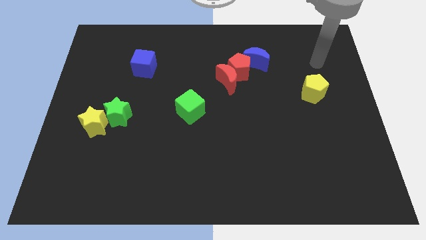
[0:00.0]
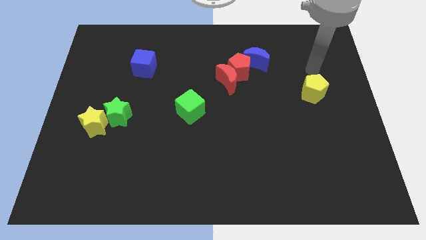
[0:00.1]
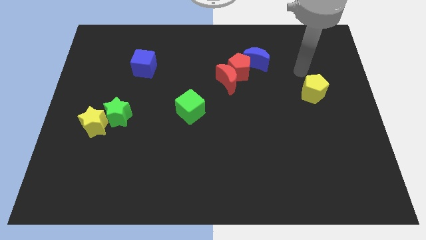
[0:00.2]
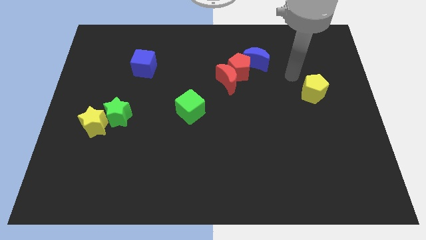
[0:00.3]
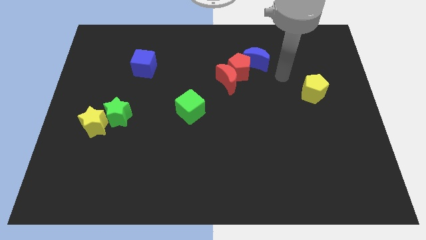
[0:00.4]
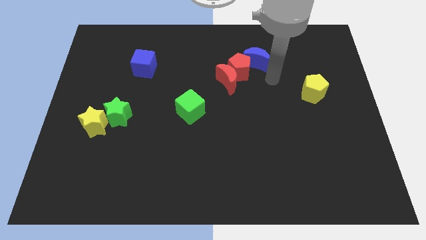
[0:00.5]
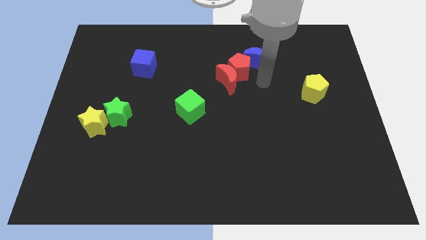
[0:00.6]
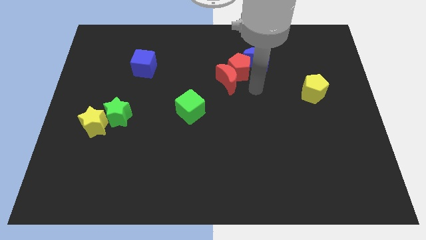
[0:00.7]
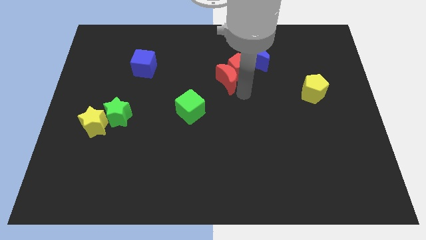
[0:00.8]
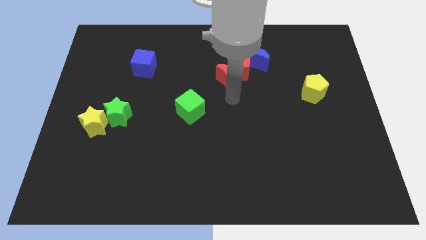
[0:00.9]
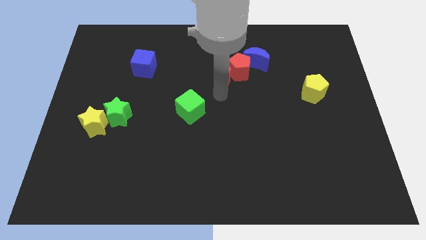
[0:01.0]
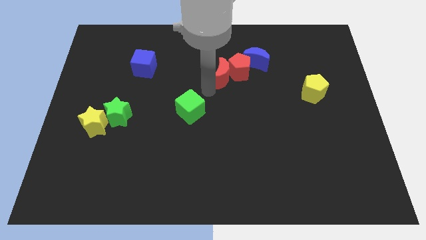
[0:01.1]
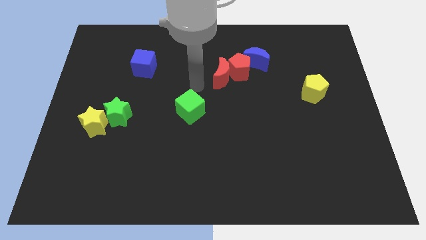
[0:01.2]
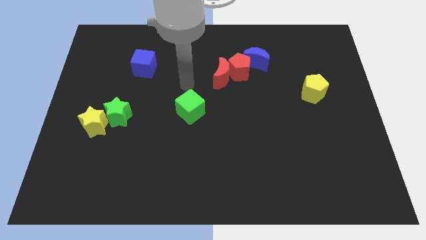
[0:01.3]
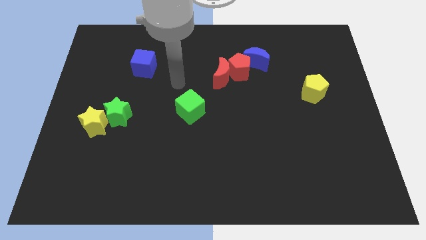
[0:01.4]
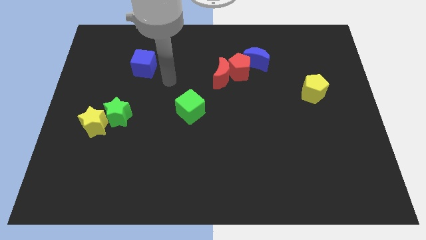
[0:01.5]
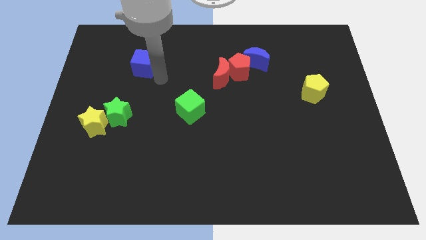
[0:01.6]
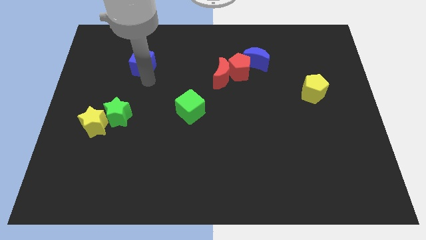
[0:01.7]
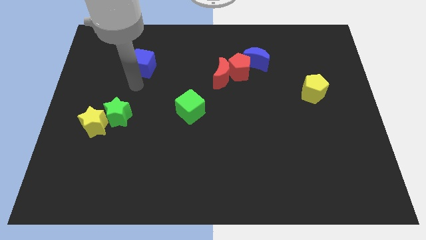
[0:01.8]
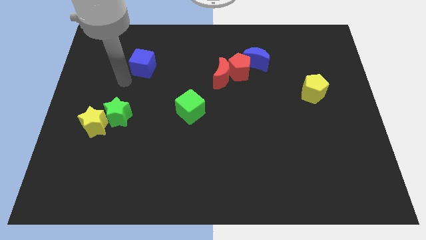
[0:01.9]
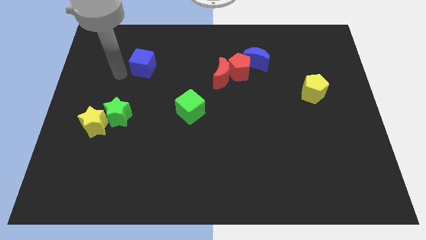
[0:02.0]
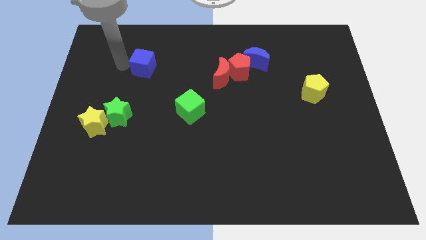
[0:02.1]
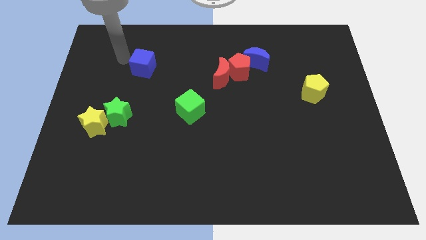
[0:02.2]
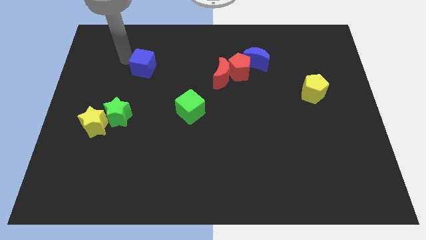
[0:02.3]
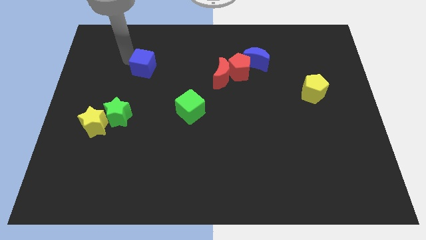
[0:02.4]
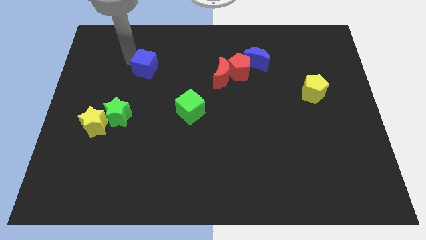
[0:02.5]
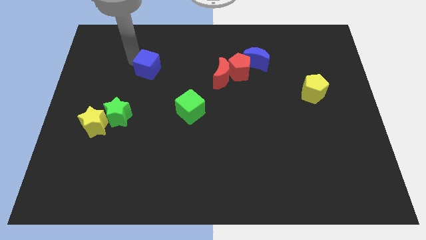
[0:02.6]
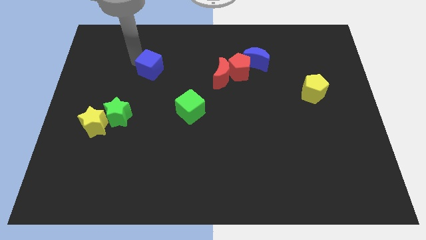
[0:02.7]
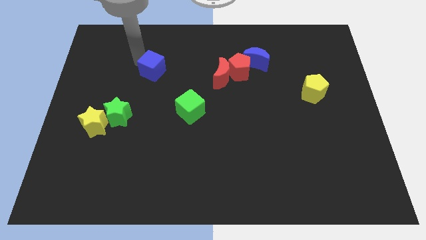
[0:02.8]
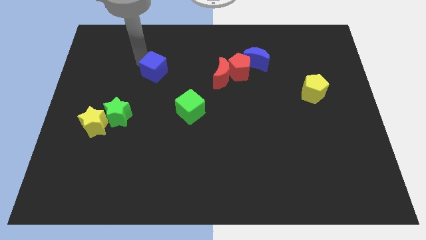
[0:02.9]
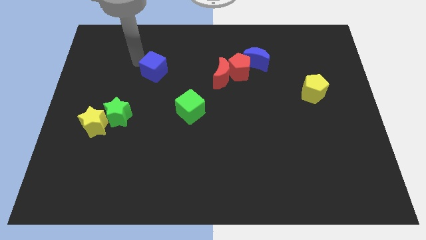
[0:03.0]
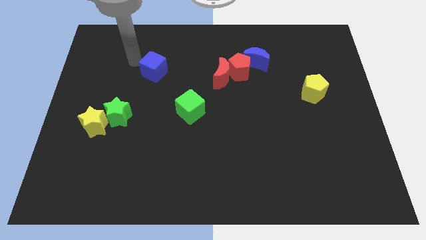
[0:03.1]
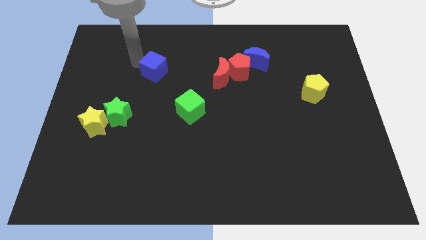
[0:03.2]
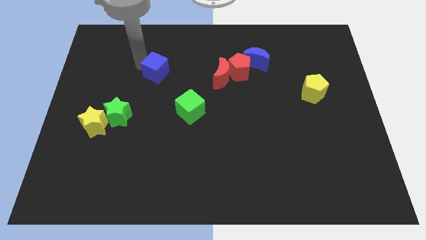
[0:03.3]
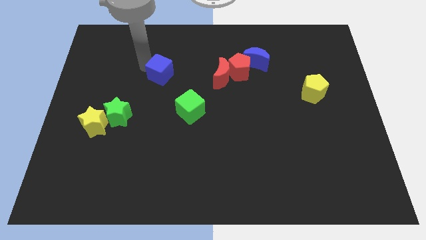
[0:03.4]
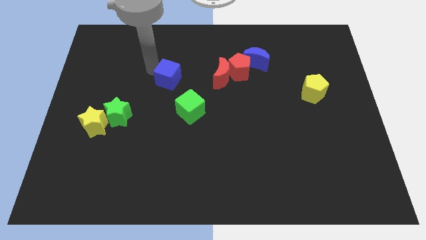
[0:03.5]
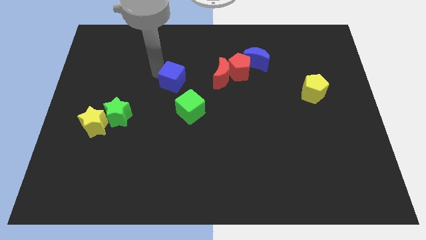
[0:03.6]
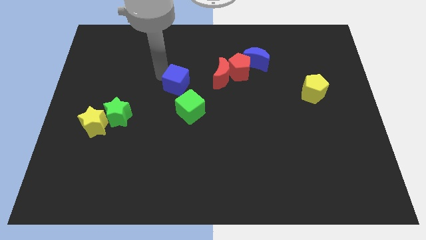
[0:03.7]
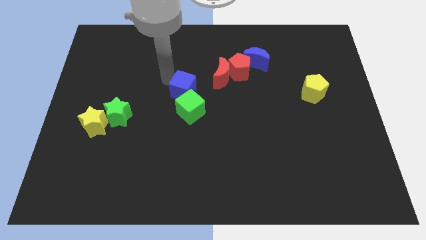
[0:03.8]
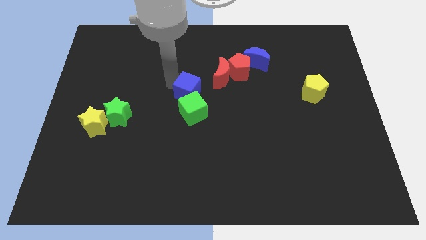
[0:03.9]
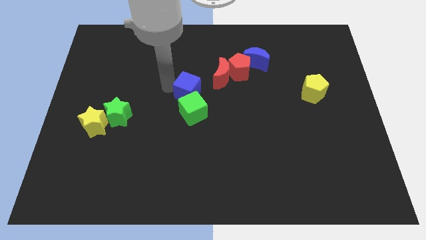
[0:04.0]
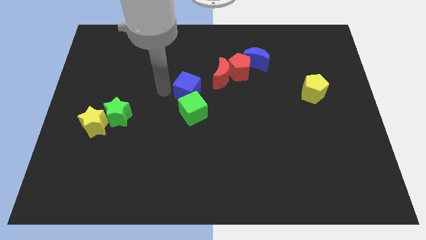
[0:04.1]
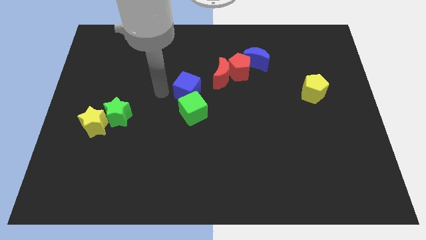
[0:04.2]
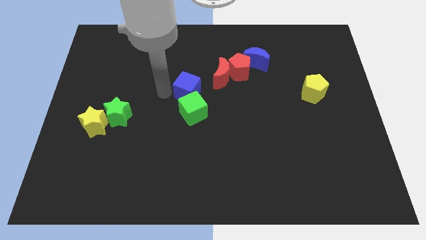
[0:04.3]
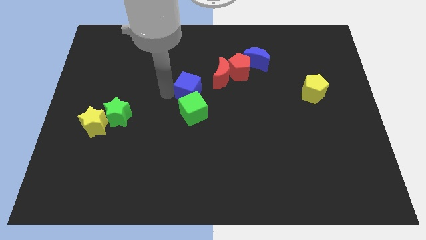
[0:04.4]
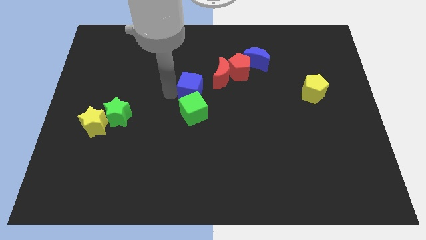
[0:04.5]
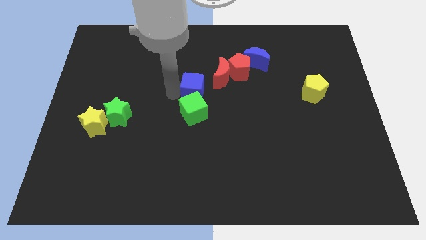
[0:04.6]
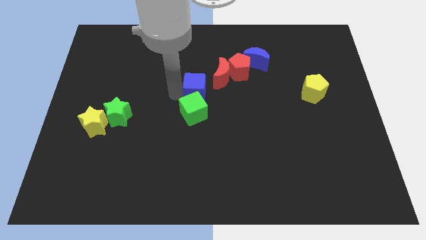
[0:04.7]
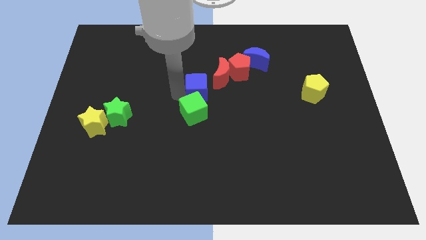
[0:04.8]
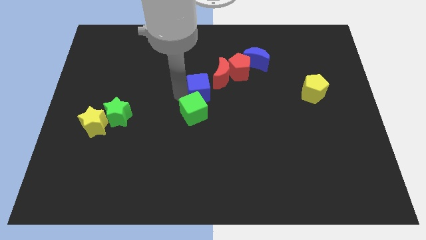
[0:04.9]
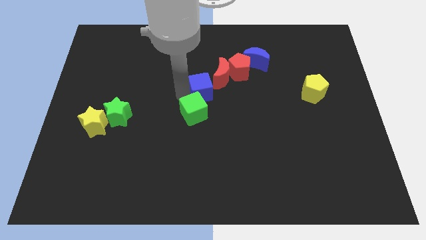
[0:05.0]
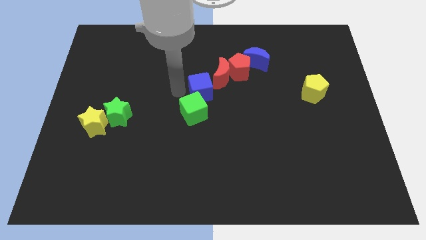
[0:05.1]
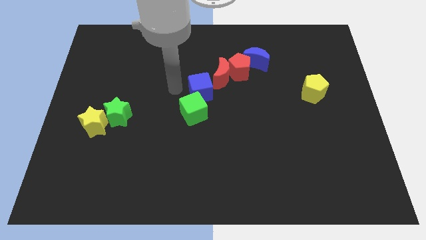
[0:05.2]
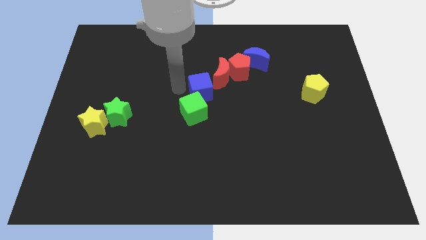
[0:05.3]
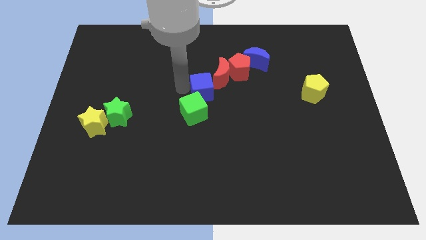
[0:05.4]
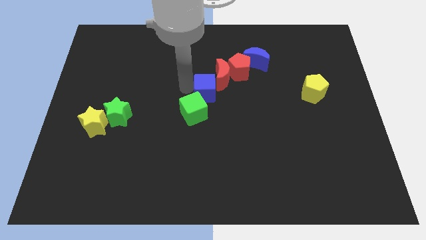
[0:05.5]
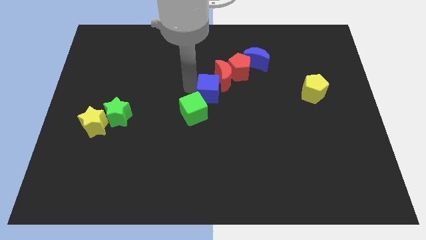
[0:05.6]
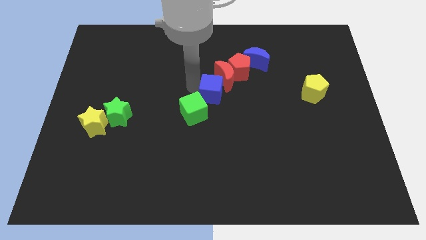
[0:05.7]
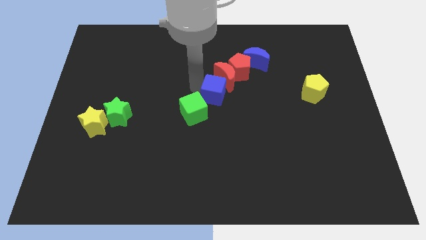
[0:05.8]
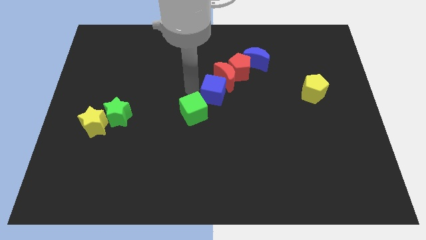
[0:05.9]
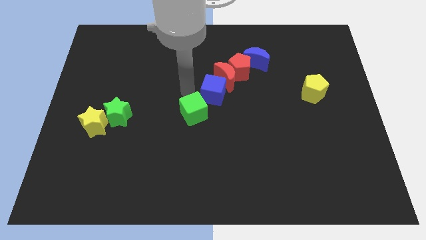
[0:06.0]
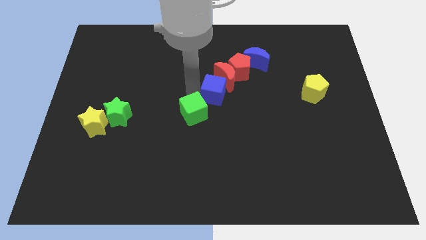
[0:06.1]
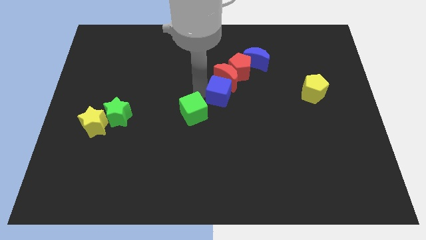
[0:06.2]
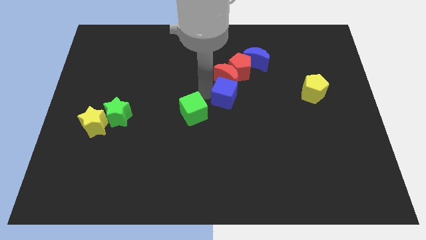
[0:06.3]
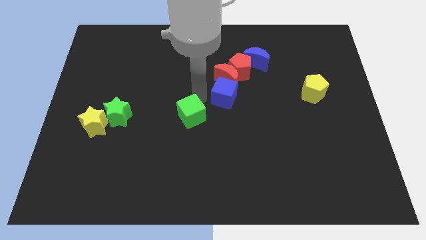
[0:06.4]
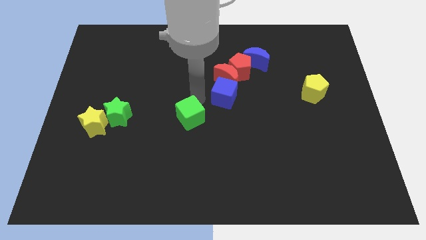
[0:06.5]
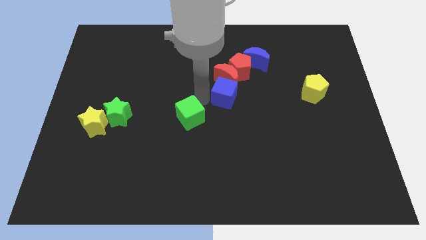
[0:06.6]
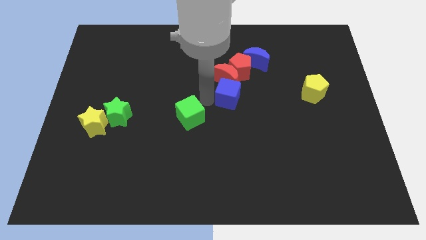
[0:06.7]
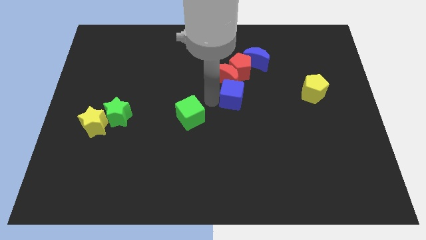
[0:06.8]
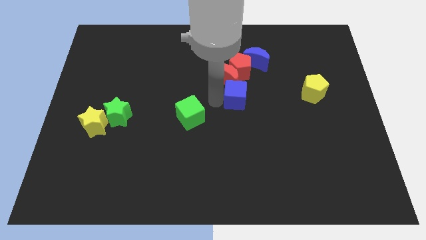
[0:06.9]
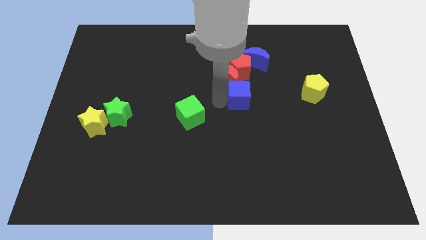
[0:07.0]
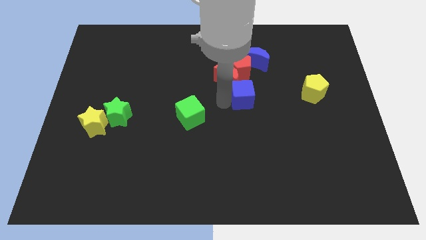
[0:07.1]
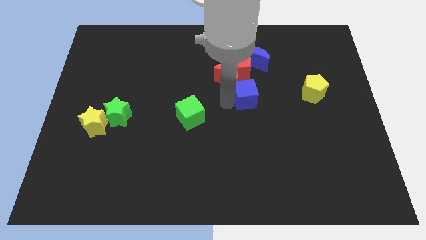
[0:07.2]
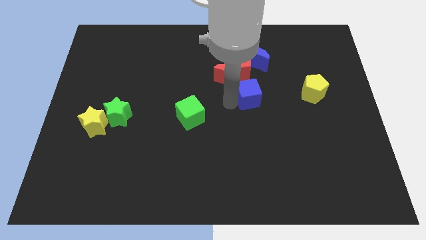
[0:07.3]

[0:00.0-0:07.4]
slide the blue cube to the left side of the yellow pentagon
